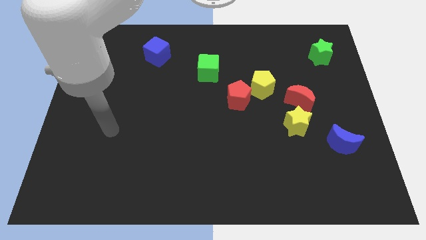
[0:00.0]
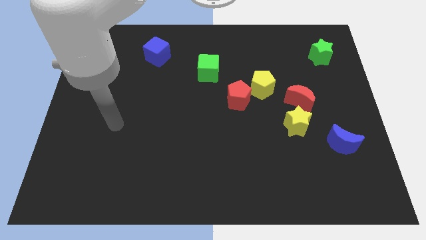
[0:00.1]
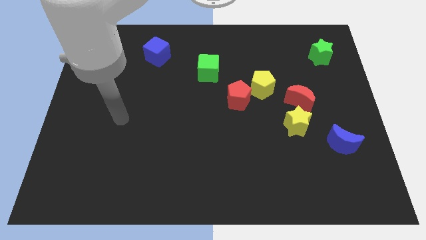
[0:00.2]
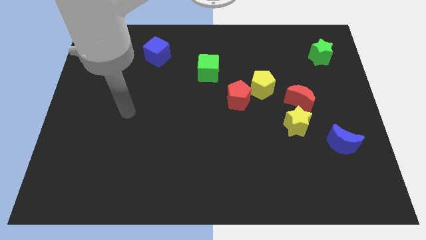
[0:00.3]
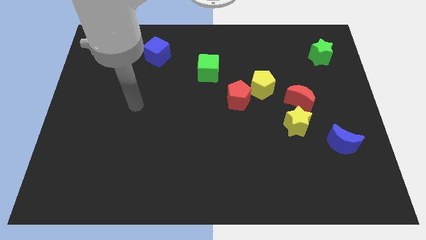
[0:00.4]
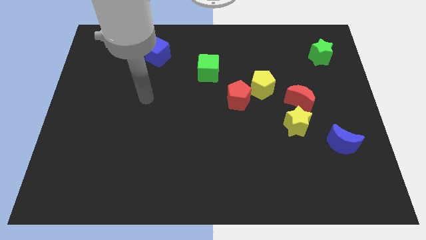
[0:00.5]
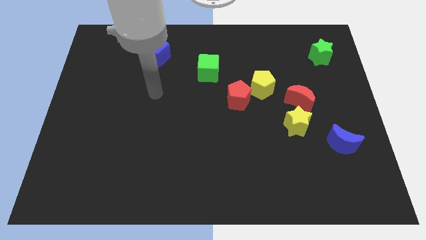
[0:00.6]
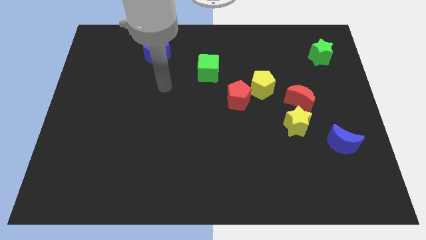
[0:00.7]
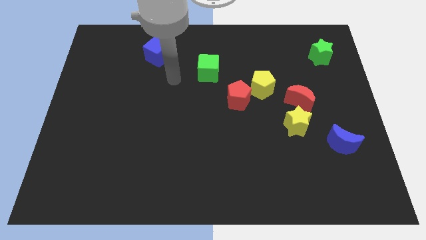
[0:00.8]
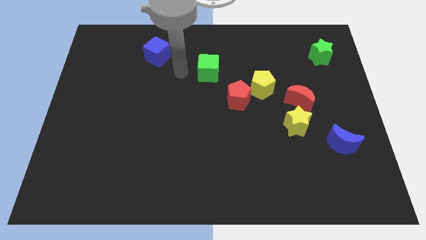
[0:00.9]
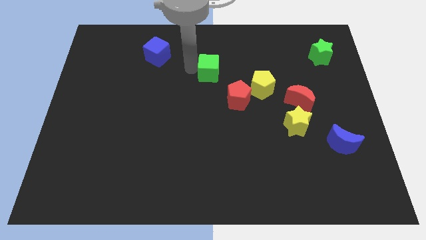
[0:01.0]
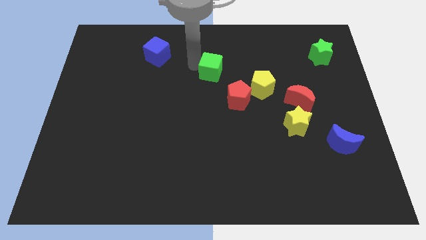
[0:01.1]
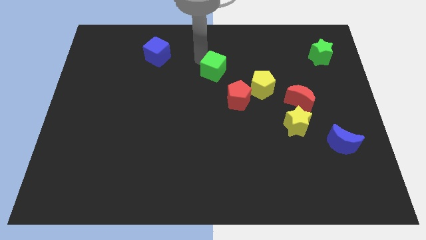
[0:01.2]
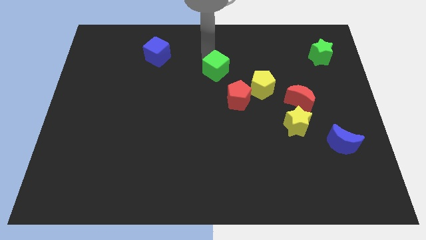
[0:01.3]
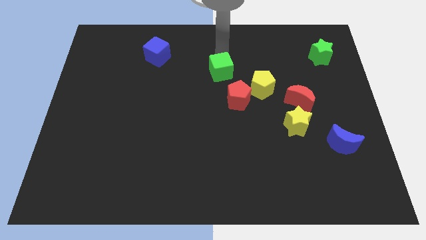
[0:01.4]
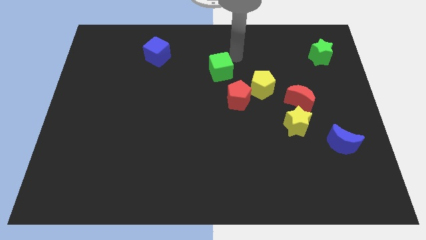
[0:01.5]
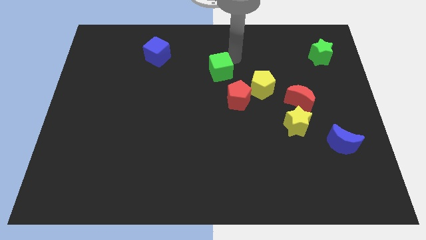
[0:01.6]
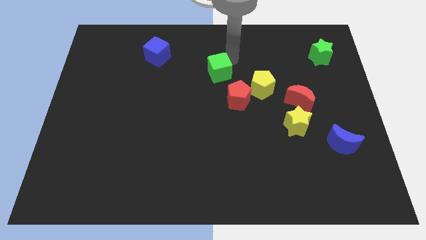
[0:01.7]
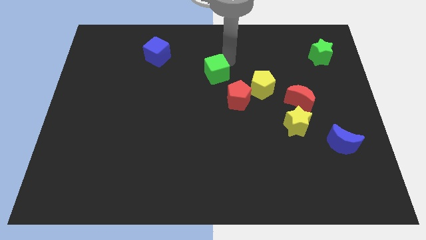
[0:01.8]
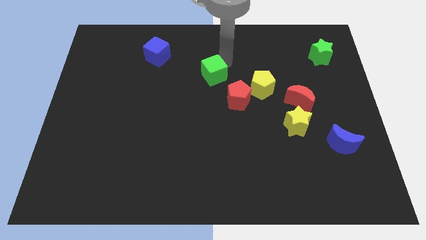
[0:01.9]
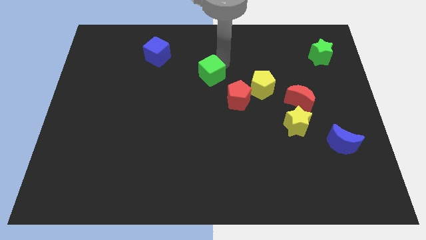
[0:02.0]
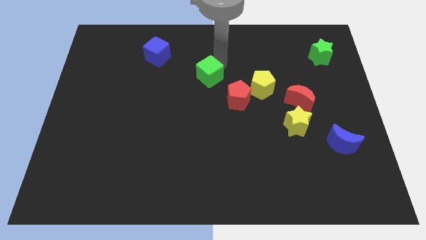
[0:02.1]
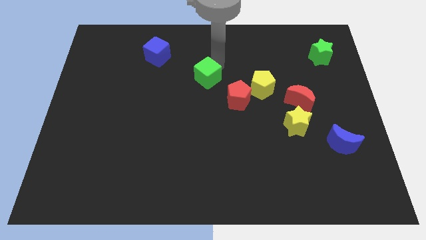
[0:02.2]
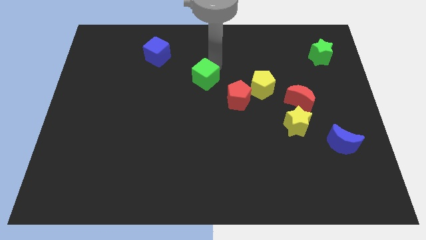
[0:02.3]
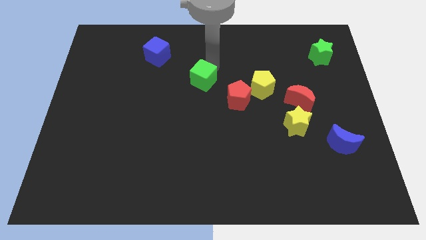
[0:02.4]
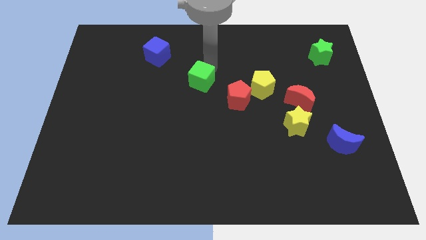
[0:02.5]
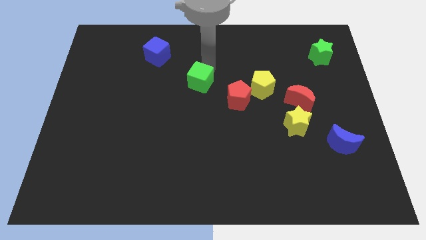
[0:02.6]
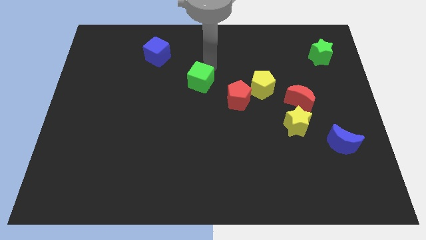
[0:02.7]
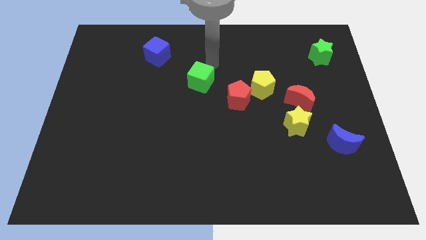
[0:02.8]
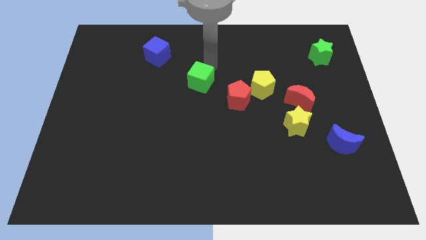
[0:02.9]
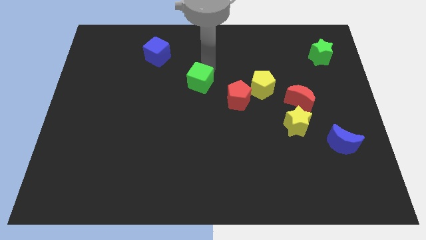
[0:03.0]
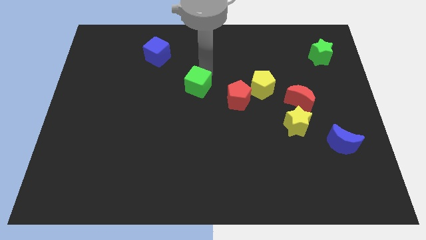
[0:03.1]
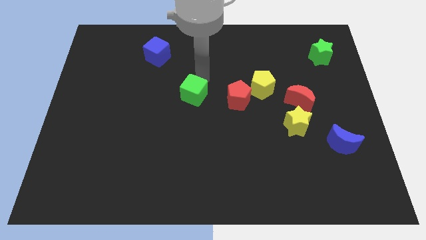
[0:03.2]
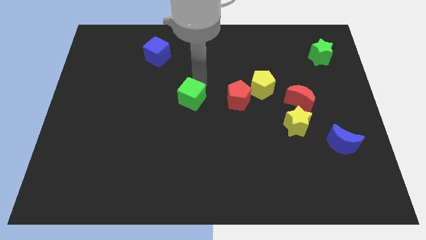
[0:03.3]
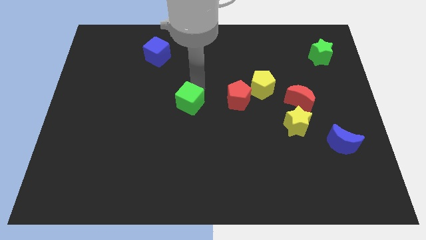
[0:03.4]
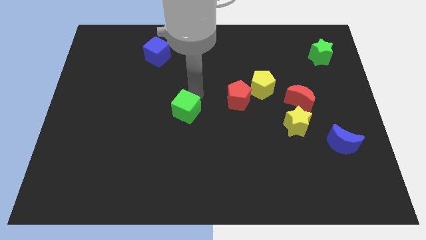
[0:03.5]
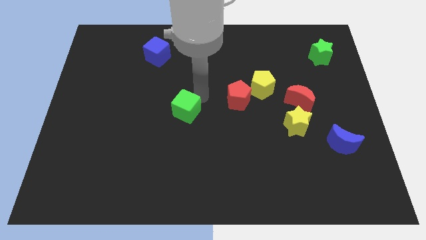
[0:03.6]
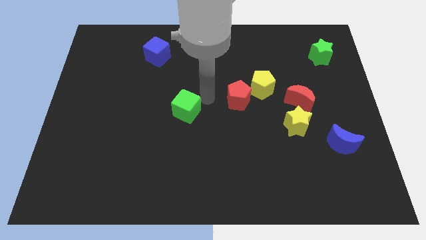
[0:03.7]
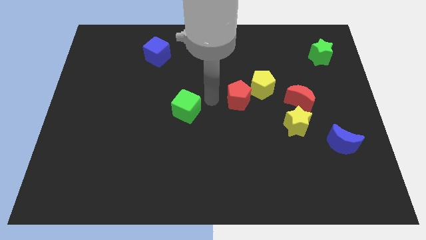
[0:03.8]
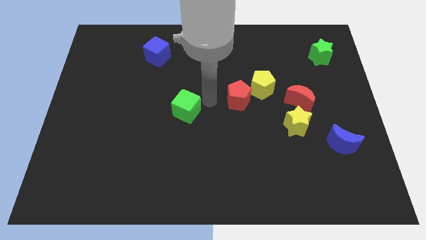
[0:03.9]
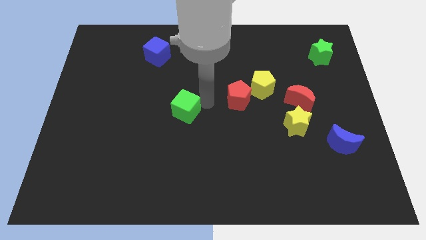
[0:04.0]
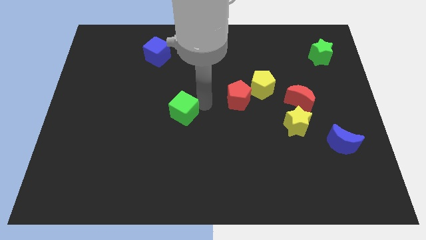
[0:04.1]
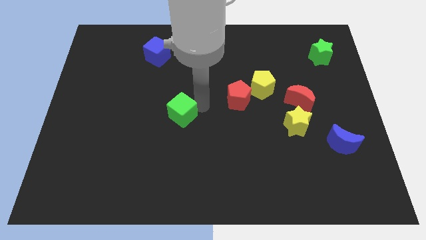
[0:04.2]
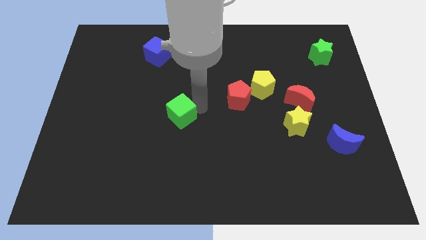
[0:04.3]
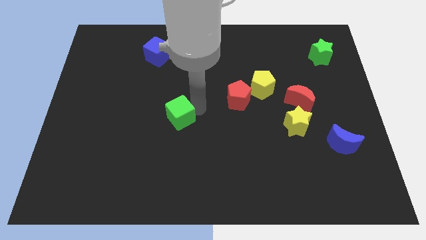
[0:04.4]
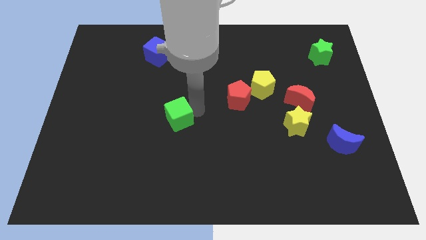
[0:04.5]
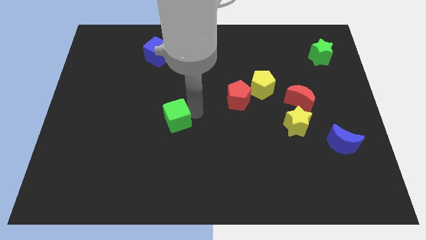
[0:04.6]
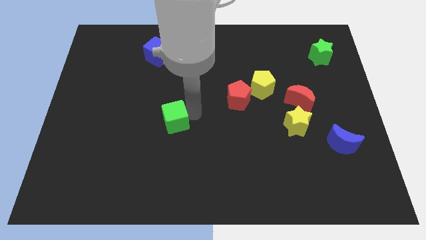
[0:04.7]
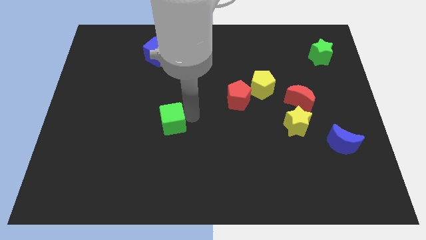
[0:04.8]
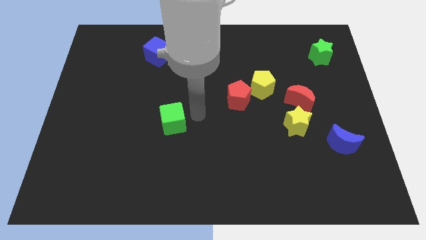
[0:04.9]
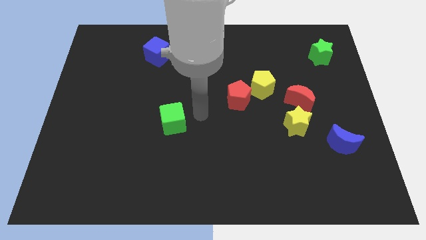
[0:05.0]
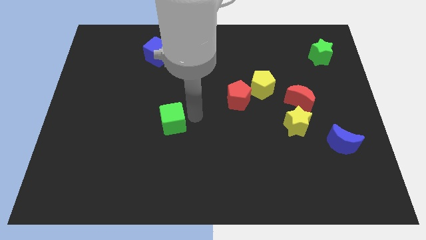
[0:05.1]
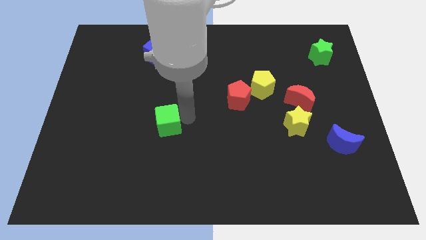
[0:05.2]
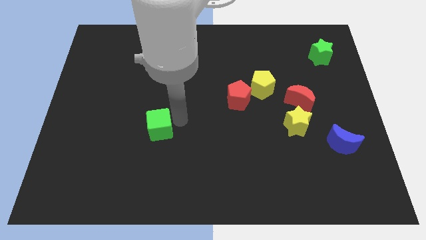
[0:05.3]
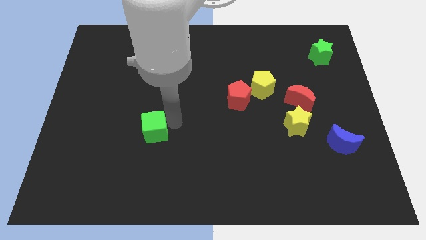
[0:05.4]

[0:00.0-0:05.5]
push the green cube down and to the left diagonally

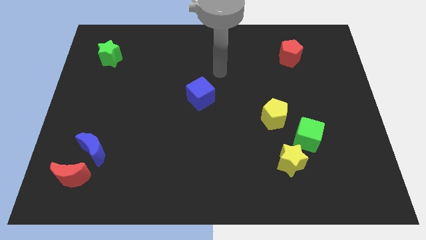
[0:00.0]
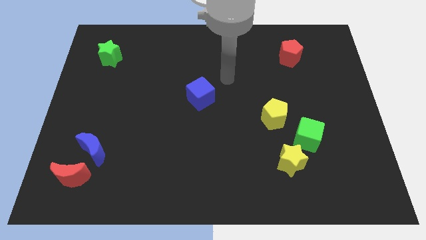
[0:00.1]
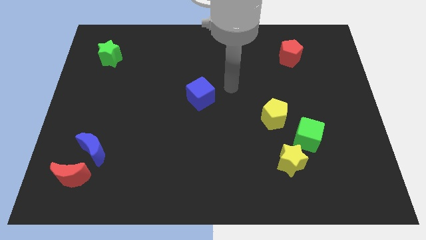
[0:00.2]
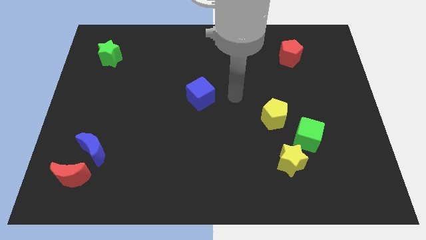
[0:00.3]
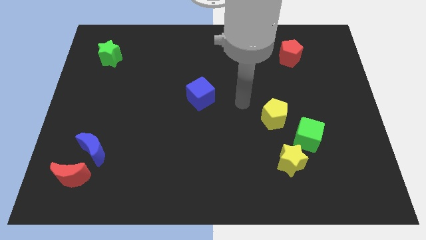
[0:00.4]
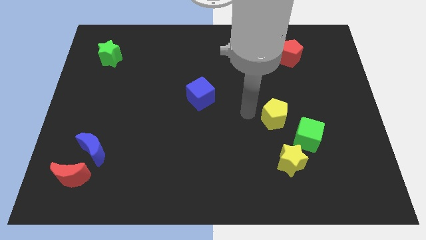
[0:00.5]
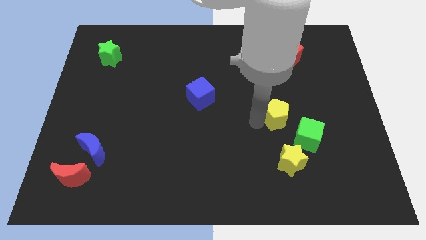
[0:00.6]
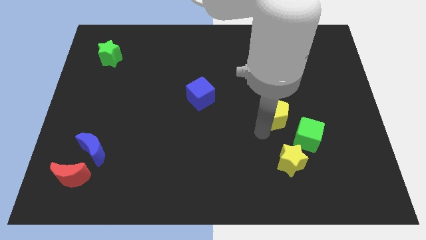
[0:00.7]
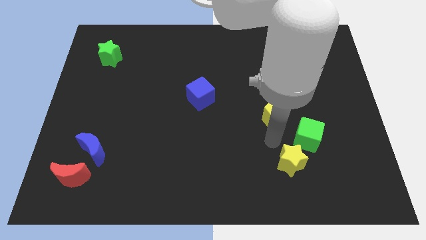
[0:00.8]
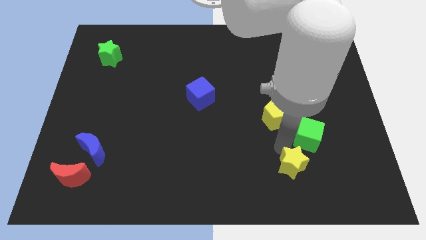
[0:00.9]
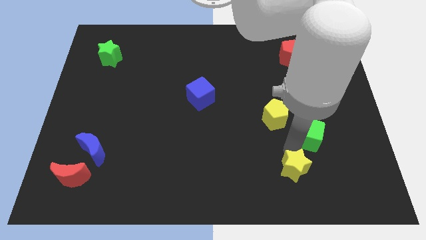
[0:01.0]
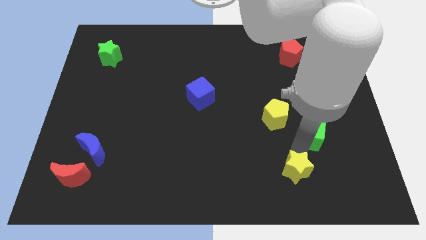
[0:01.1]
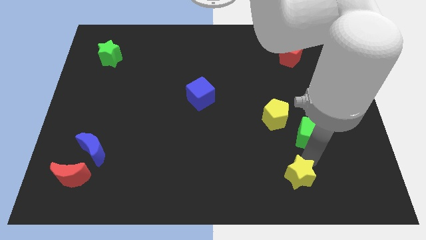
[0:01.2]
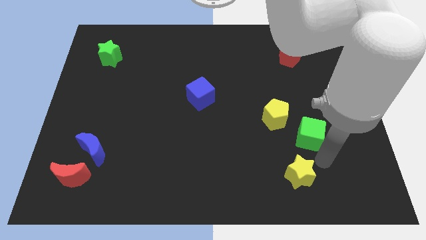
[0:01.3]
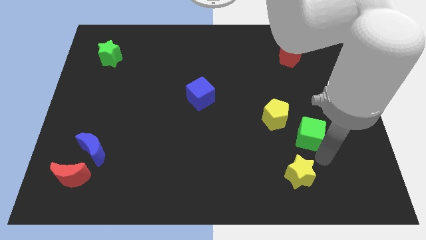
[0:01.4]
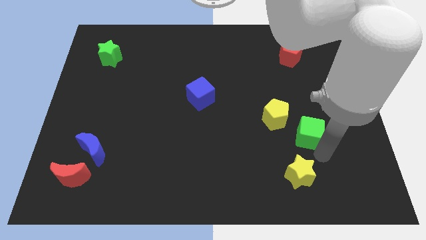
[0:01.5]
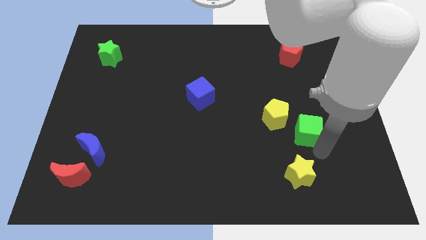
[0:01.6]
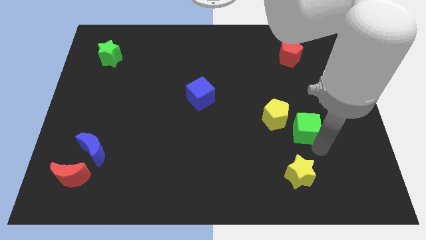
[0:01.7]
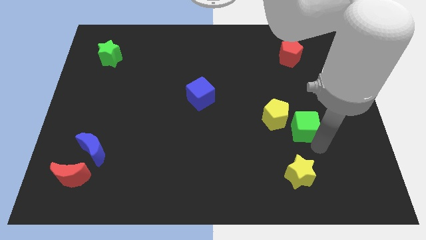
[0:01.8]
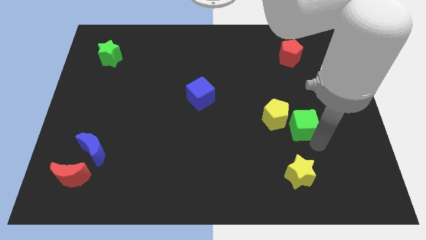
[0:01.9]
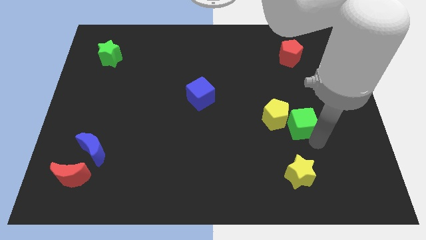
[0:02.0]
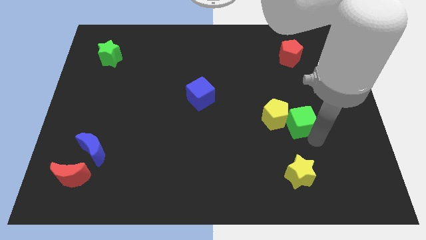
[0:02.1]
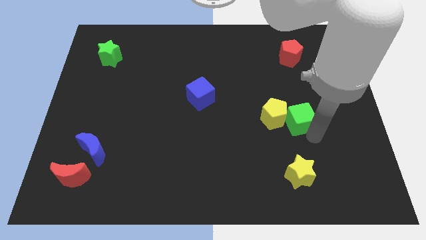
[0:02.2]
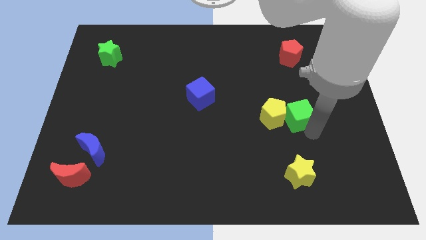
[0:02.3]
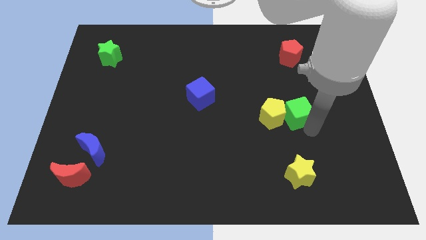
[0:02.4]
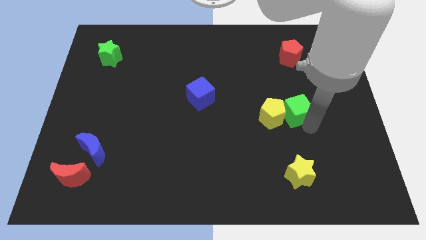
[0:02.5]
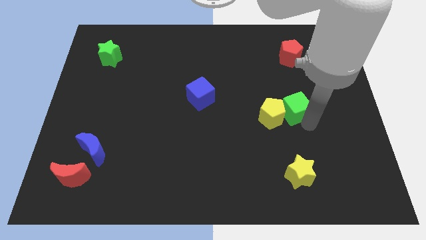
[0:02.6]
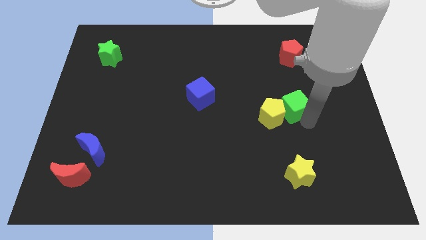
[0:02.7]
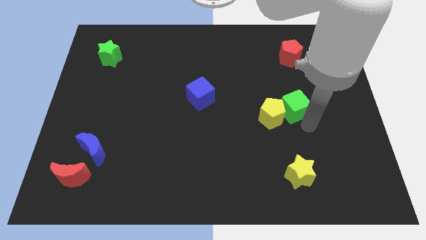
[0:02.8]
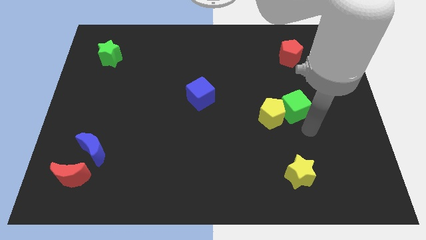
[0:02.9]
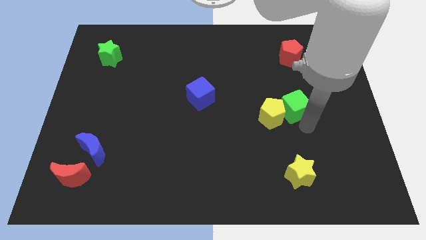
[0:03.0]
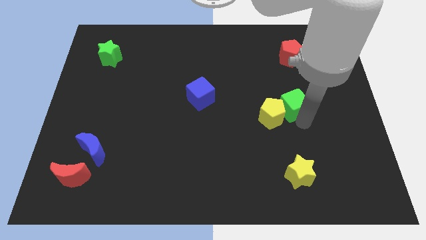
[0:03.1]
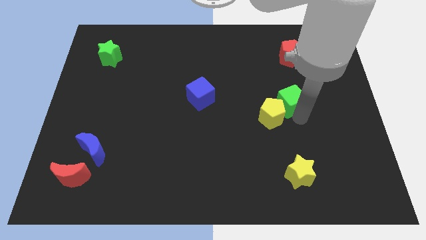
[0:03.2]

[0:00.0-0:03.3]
slightly push the green cube diagonally up and left
